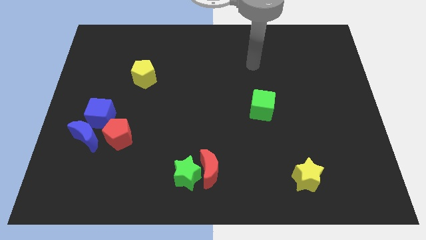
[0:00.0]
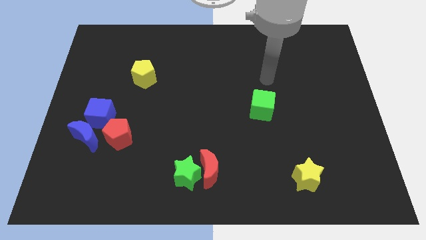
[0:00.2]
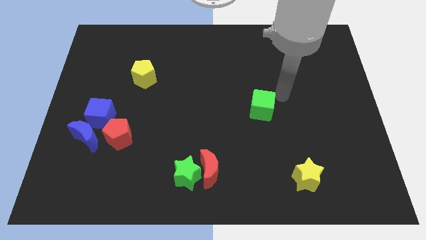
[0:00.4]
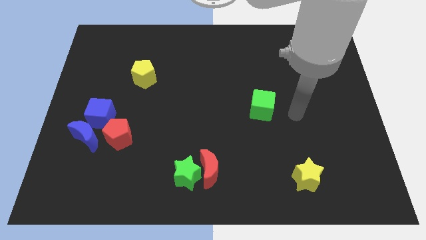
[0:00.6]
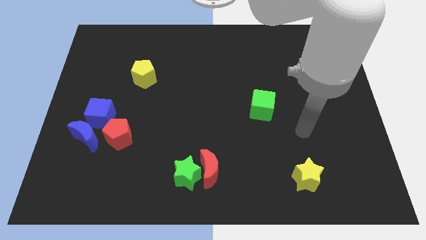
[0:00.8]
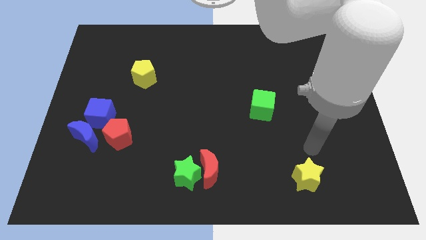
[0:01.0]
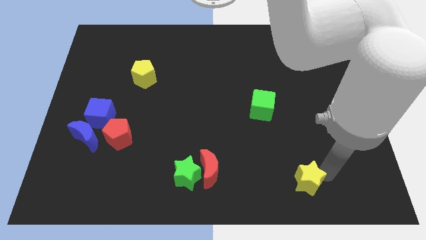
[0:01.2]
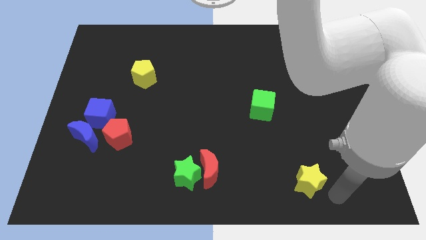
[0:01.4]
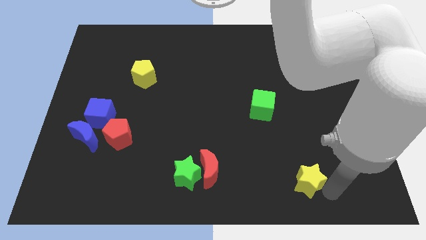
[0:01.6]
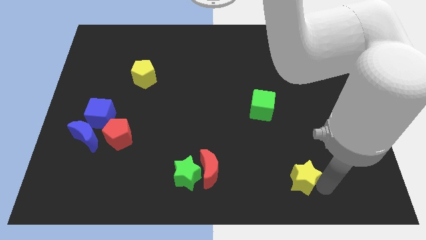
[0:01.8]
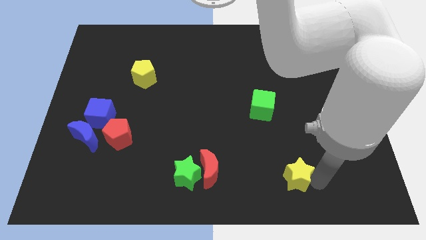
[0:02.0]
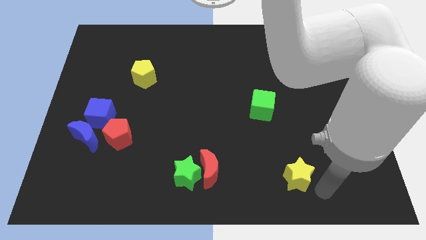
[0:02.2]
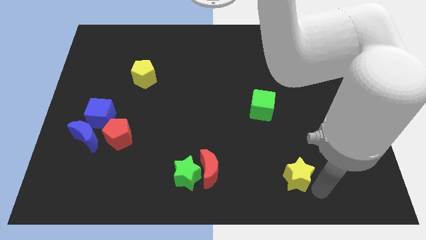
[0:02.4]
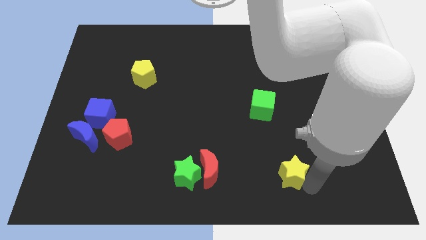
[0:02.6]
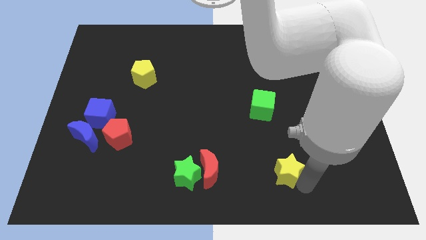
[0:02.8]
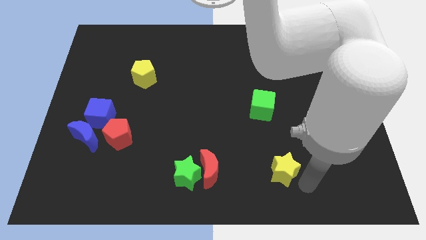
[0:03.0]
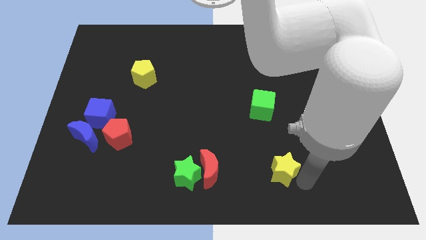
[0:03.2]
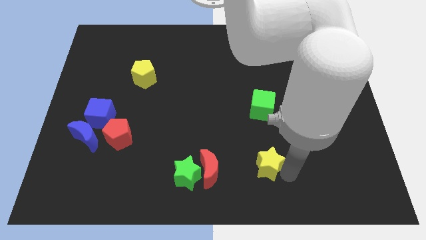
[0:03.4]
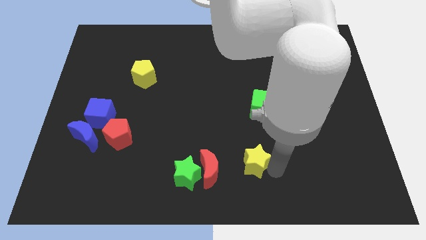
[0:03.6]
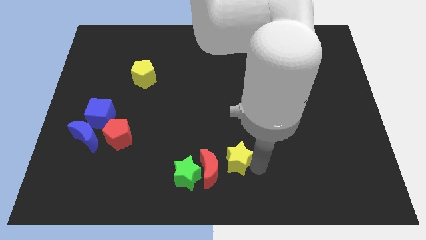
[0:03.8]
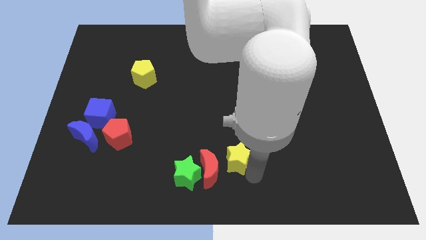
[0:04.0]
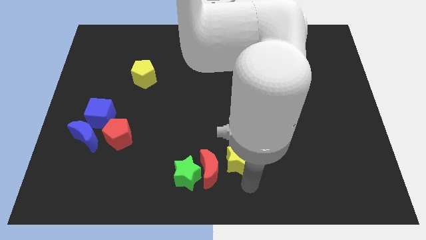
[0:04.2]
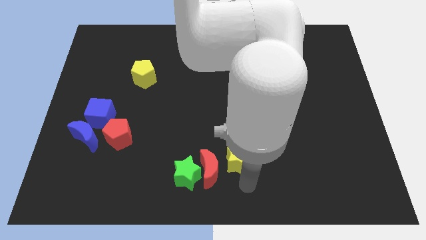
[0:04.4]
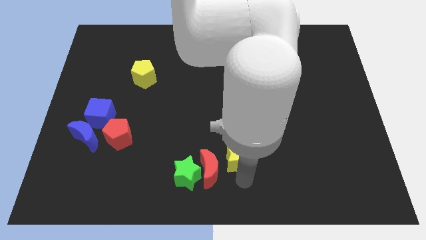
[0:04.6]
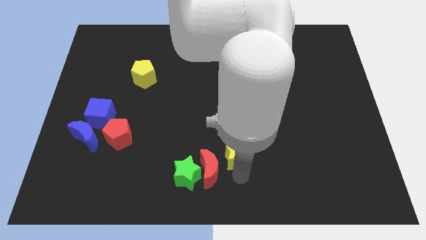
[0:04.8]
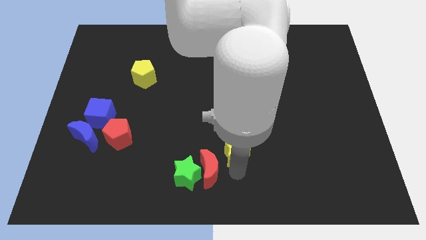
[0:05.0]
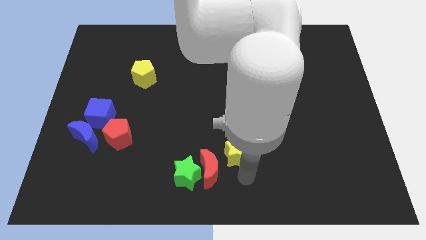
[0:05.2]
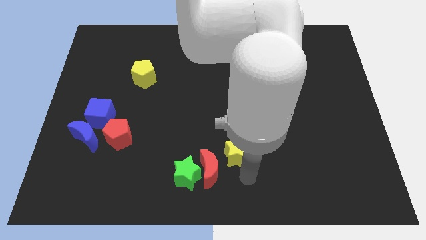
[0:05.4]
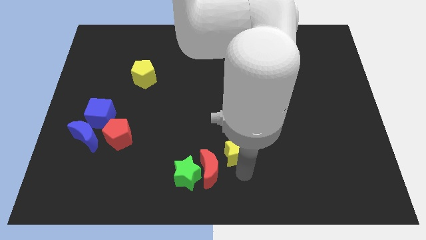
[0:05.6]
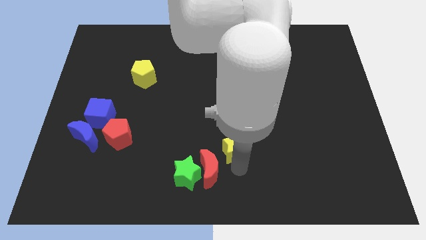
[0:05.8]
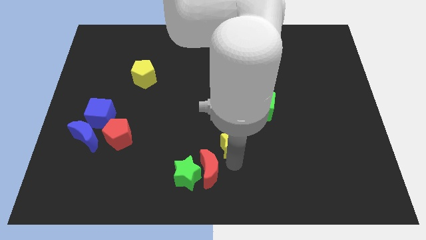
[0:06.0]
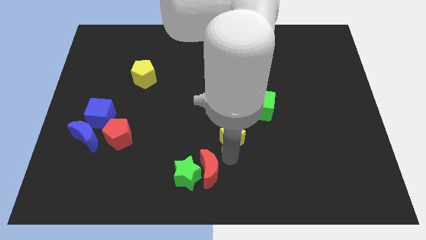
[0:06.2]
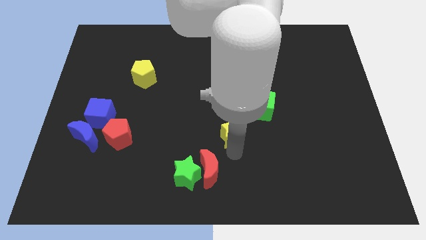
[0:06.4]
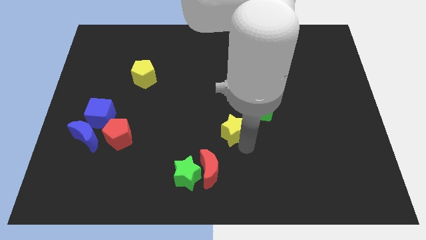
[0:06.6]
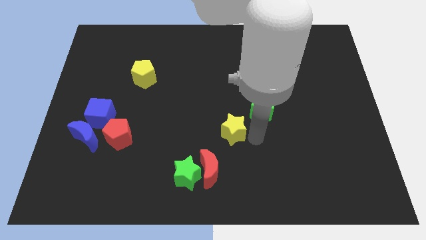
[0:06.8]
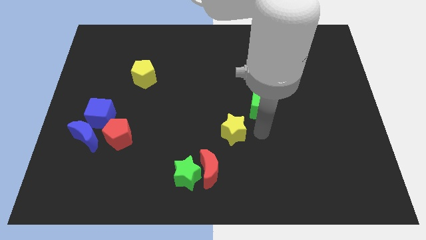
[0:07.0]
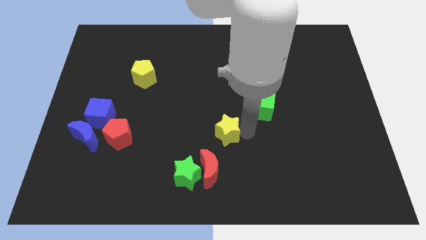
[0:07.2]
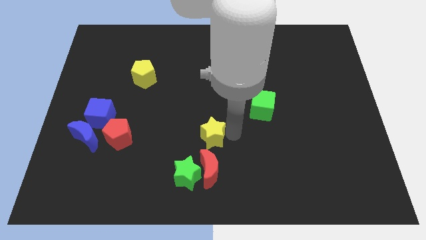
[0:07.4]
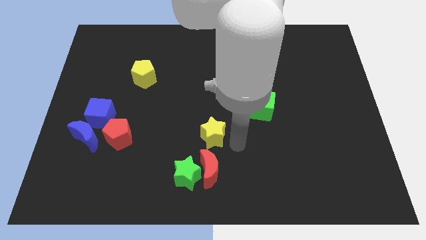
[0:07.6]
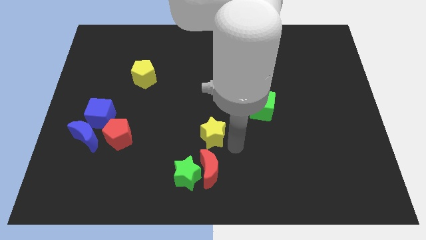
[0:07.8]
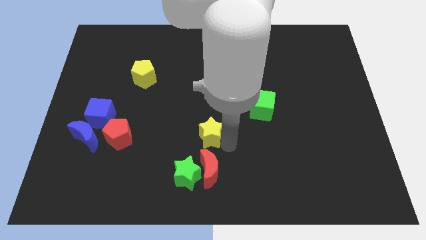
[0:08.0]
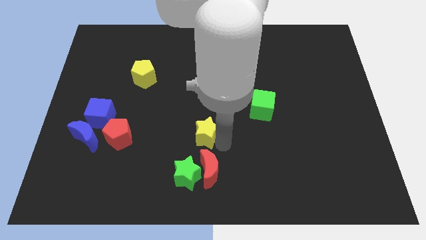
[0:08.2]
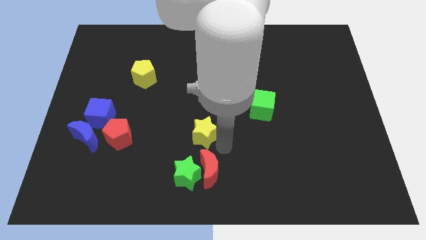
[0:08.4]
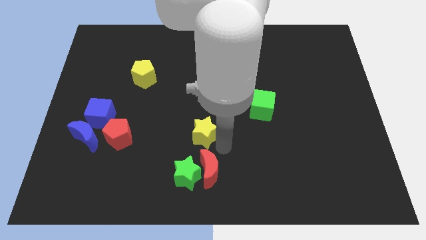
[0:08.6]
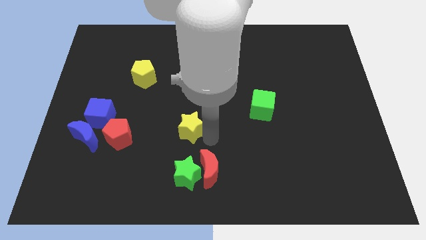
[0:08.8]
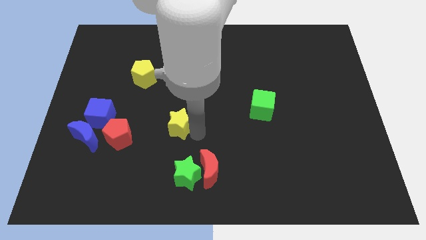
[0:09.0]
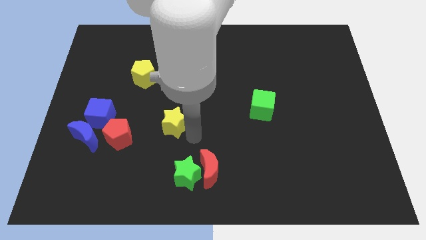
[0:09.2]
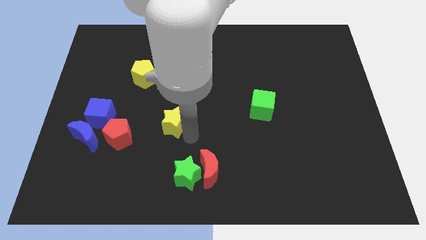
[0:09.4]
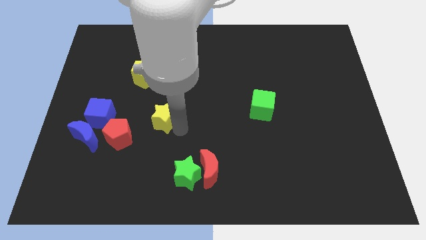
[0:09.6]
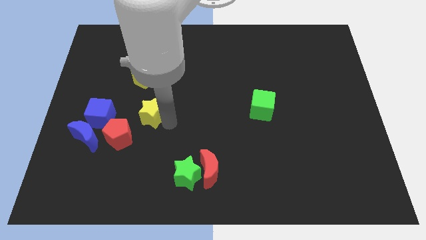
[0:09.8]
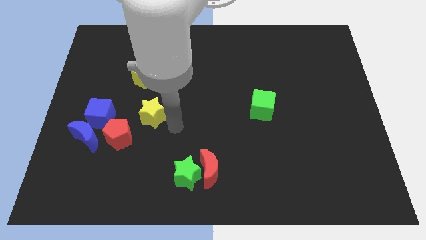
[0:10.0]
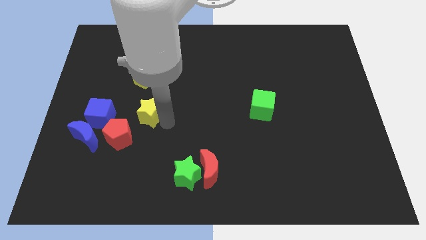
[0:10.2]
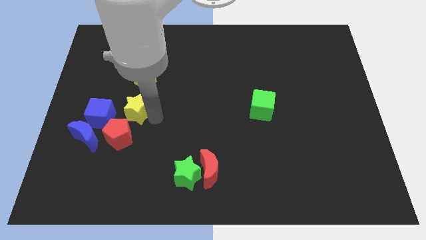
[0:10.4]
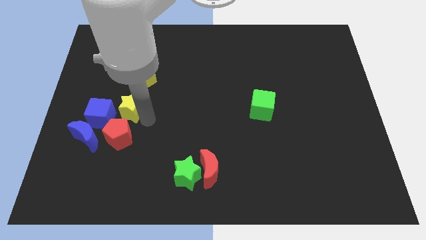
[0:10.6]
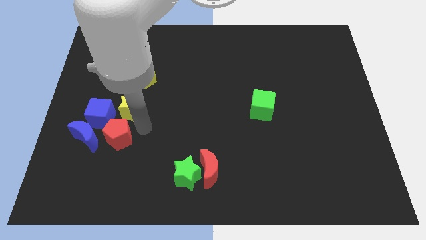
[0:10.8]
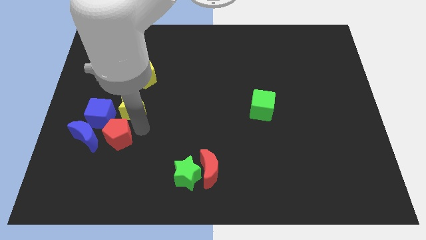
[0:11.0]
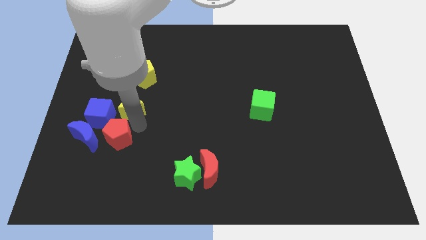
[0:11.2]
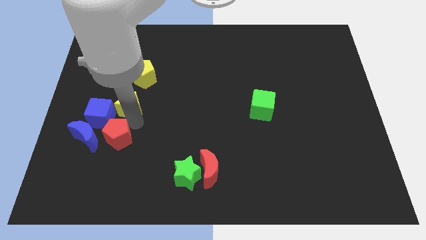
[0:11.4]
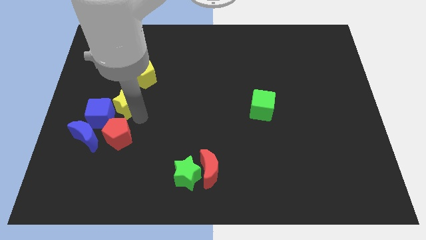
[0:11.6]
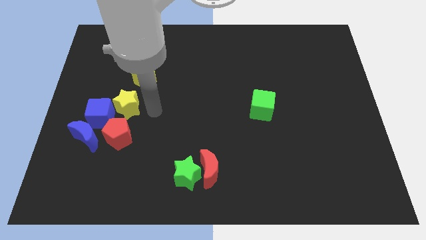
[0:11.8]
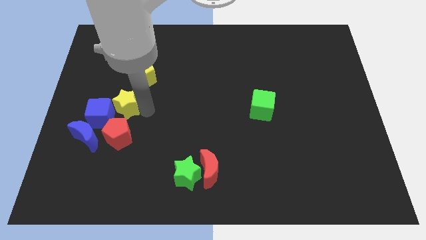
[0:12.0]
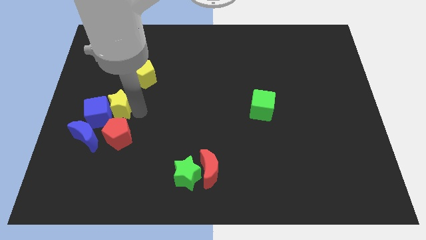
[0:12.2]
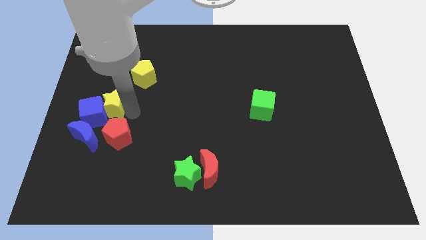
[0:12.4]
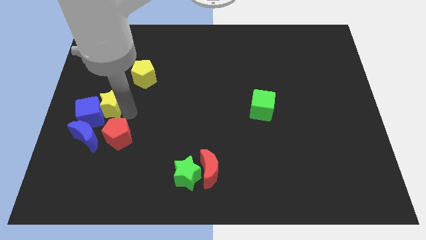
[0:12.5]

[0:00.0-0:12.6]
push the yellow star to the top side of the blue moon

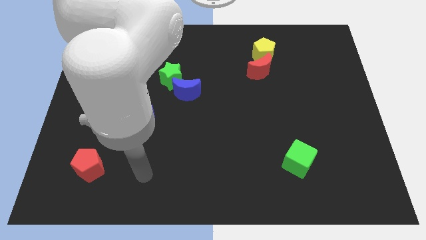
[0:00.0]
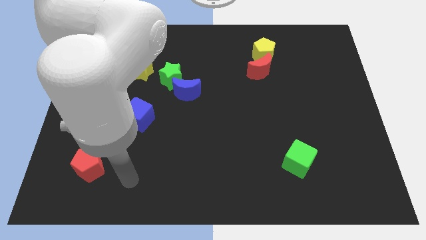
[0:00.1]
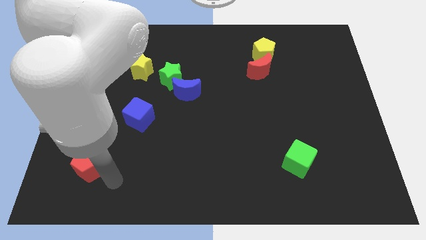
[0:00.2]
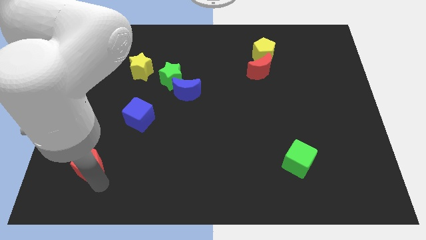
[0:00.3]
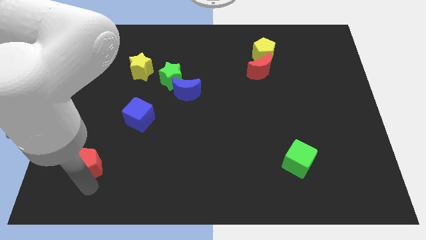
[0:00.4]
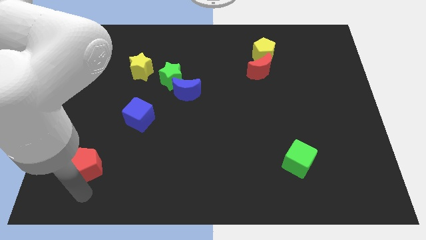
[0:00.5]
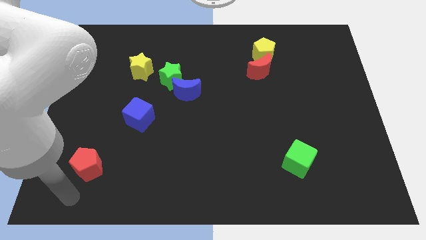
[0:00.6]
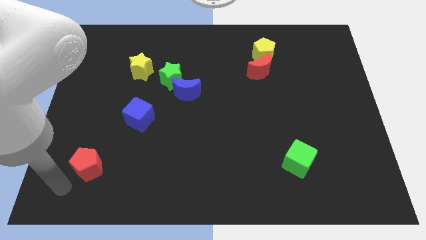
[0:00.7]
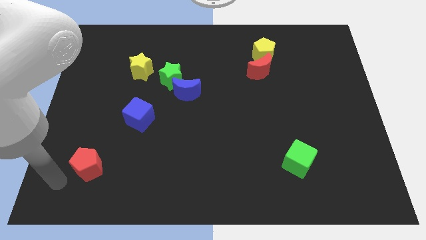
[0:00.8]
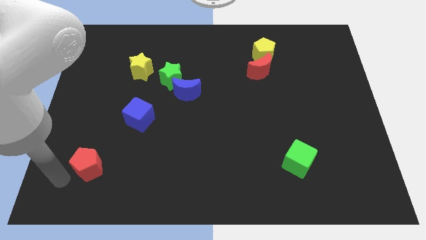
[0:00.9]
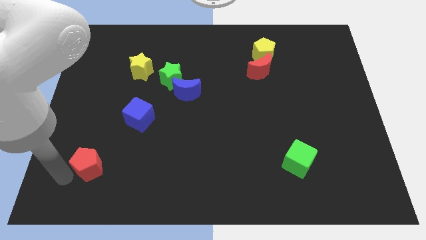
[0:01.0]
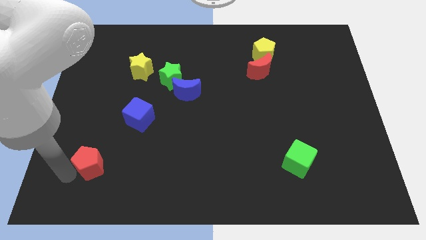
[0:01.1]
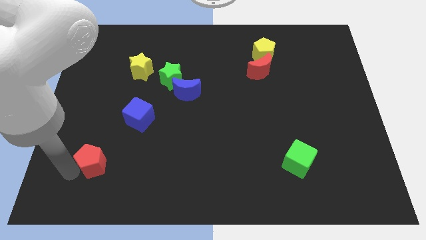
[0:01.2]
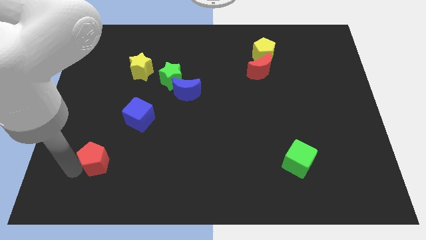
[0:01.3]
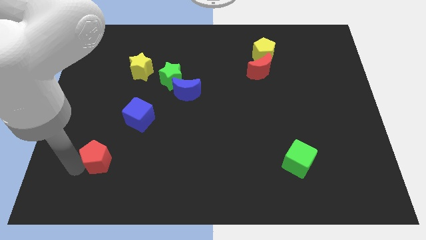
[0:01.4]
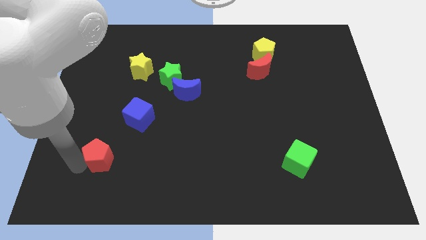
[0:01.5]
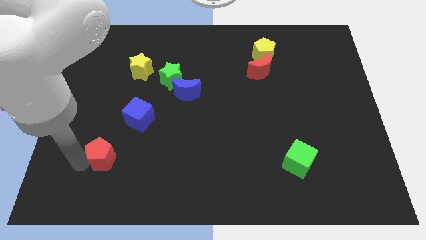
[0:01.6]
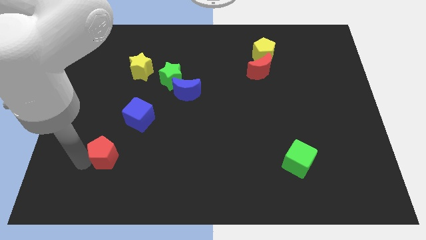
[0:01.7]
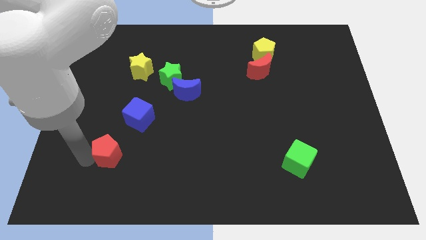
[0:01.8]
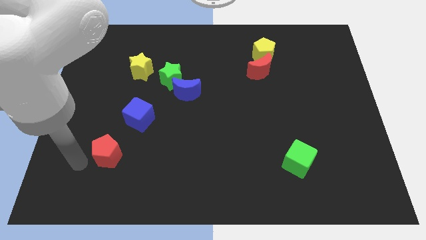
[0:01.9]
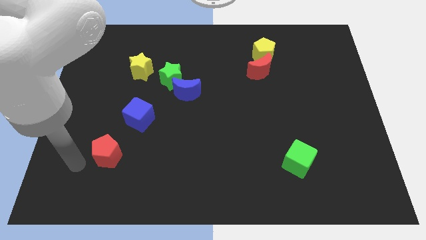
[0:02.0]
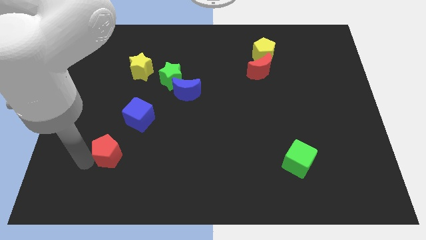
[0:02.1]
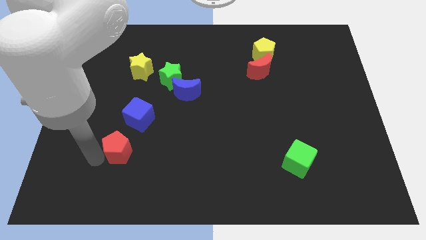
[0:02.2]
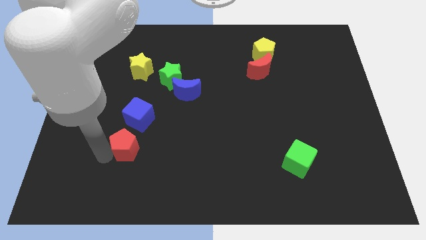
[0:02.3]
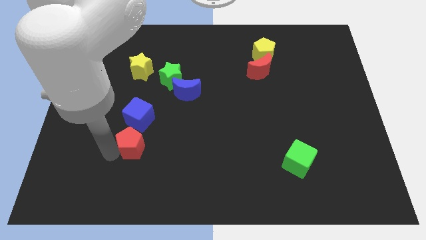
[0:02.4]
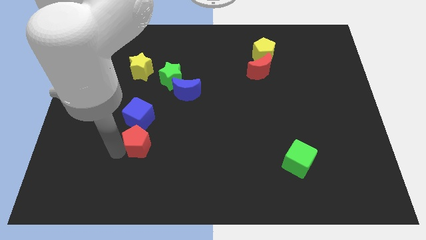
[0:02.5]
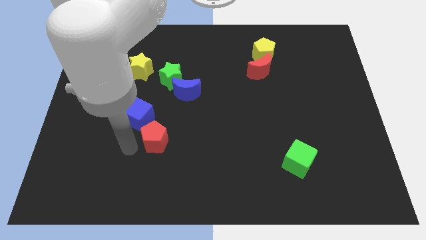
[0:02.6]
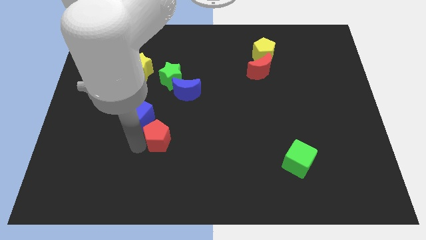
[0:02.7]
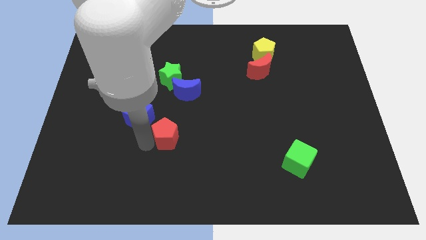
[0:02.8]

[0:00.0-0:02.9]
move the red pentagon below the blue moon
